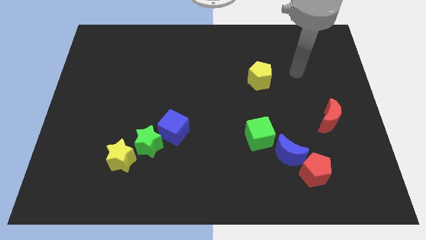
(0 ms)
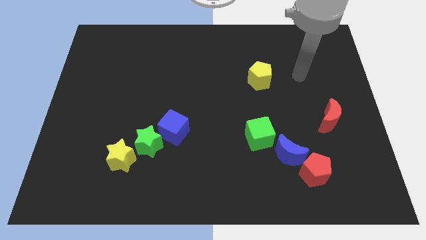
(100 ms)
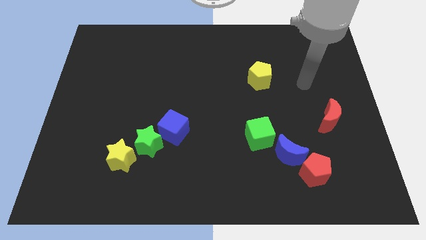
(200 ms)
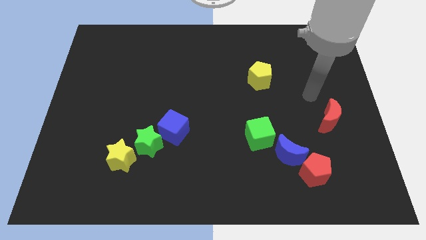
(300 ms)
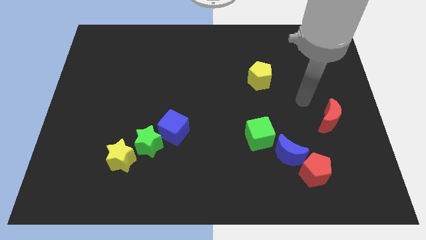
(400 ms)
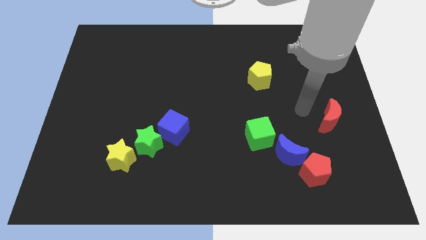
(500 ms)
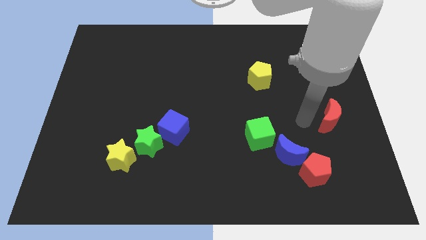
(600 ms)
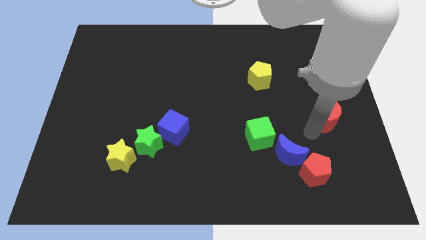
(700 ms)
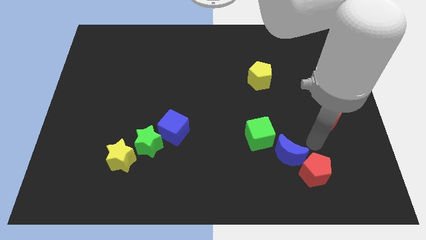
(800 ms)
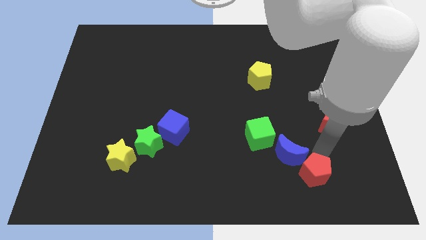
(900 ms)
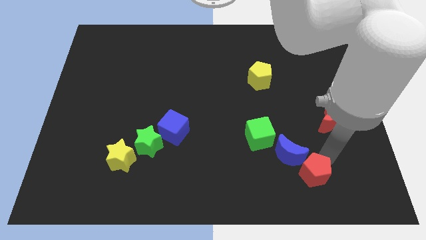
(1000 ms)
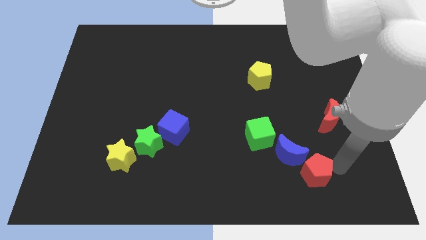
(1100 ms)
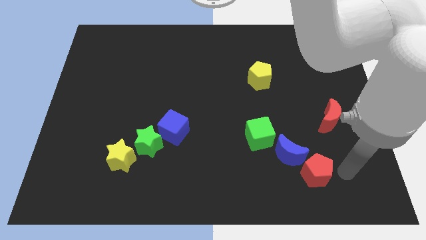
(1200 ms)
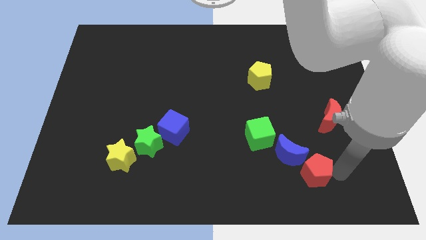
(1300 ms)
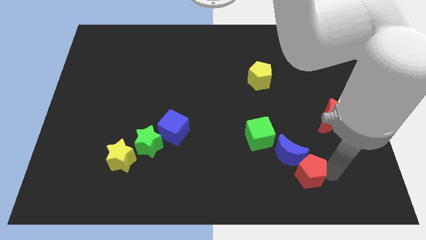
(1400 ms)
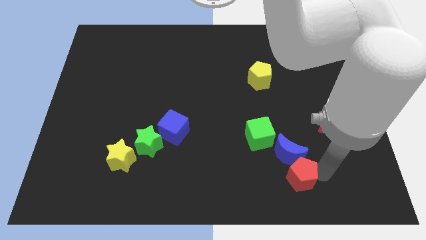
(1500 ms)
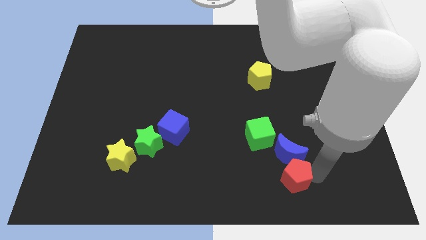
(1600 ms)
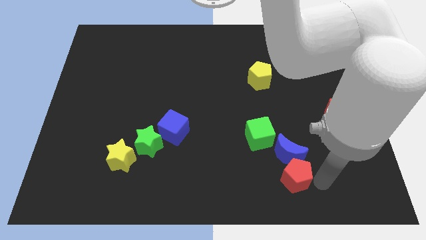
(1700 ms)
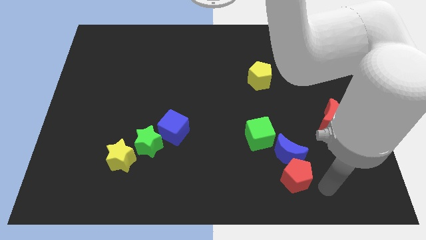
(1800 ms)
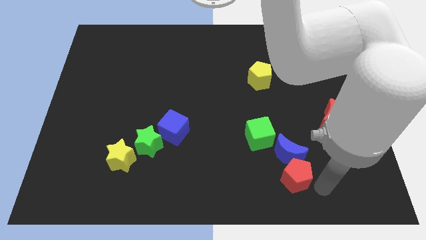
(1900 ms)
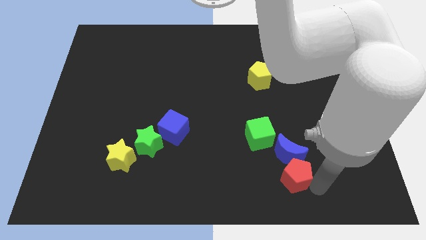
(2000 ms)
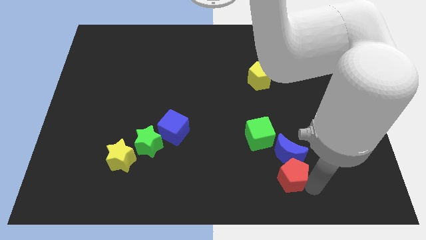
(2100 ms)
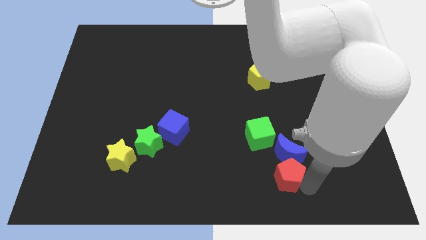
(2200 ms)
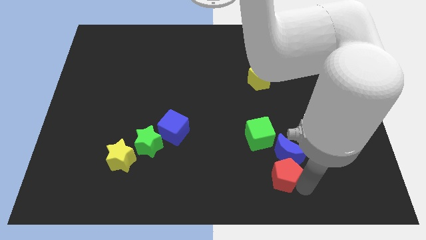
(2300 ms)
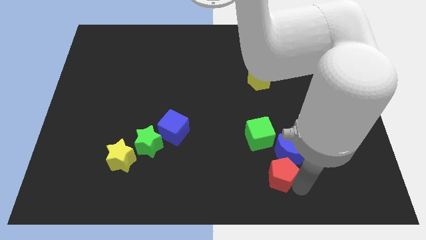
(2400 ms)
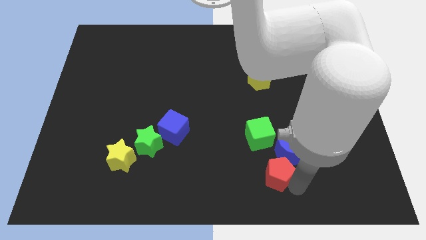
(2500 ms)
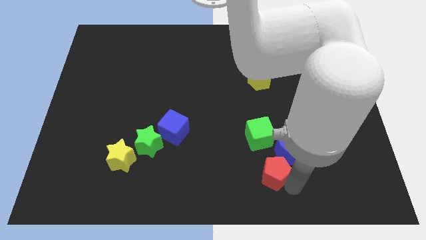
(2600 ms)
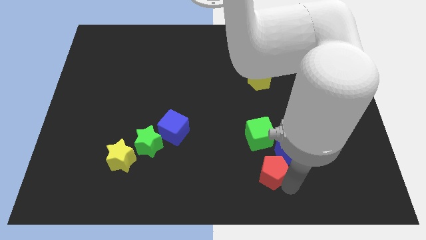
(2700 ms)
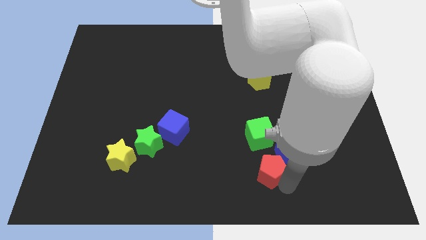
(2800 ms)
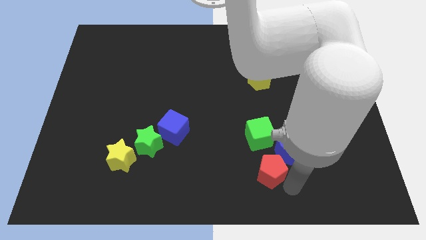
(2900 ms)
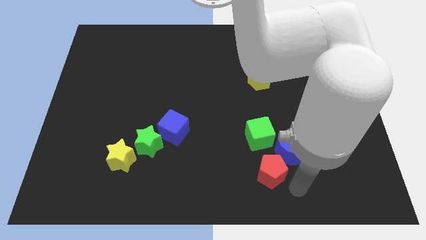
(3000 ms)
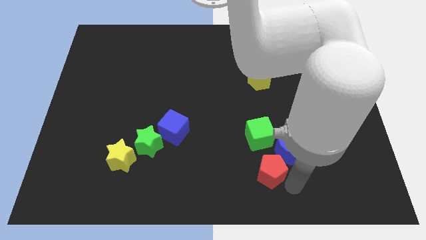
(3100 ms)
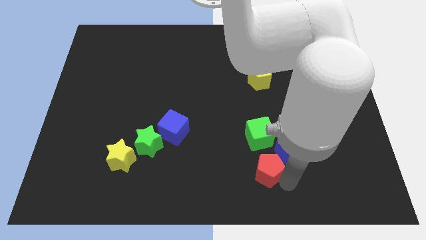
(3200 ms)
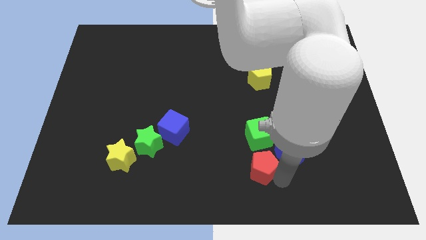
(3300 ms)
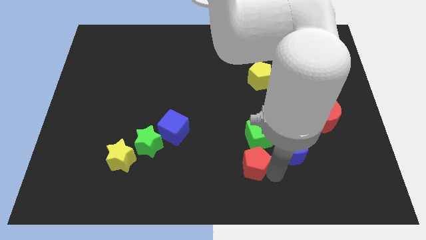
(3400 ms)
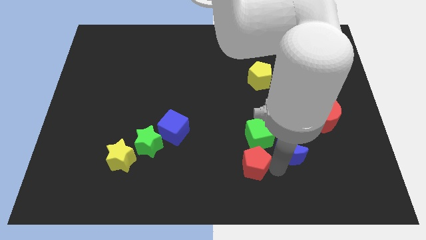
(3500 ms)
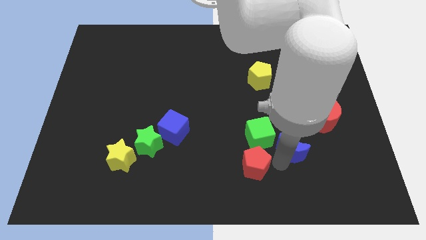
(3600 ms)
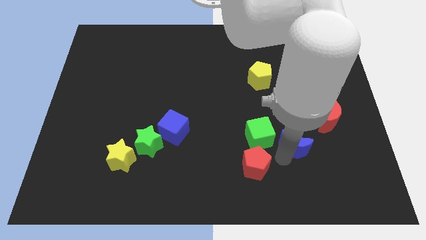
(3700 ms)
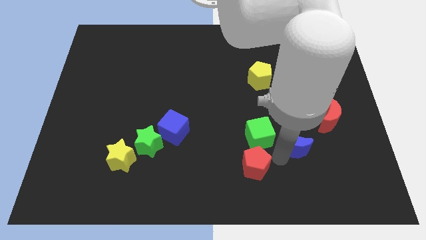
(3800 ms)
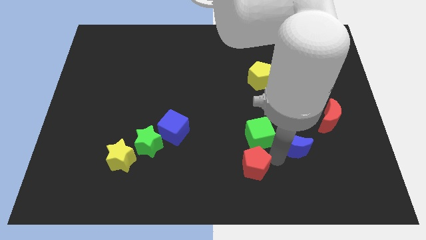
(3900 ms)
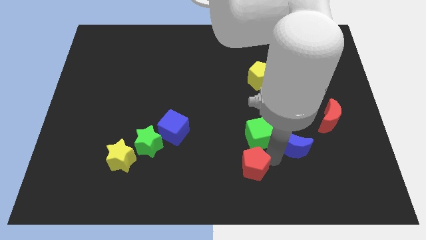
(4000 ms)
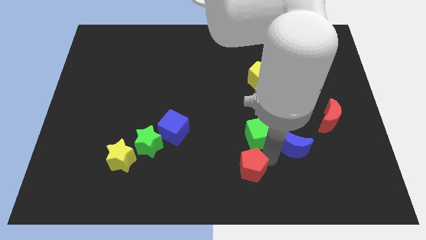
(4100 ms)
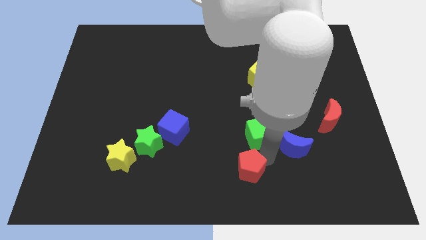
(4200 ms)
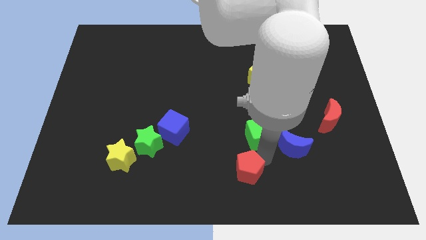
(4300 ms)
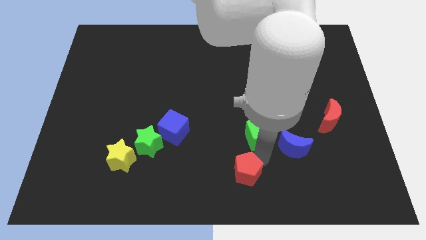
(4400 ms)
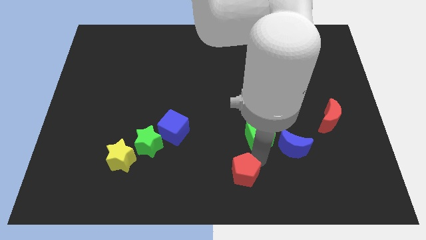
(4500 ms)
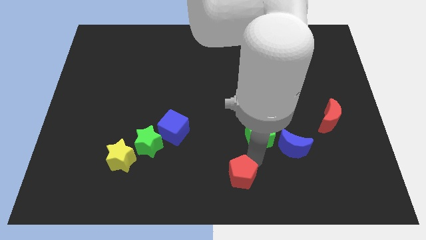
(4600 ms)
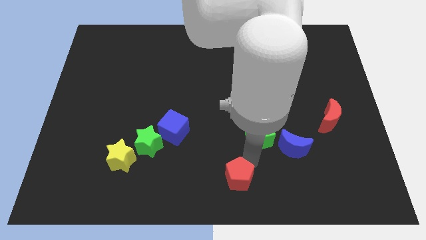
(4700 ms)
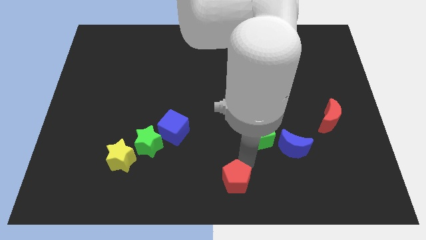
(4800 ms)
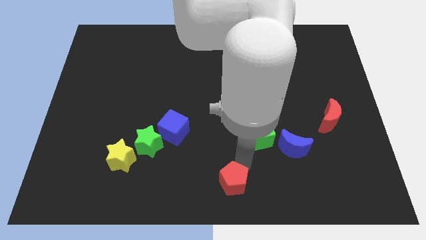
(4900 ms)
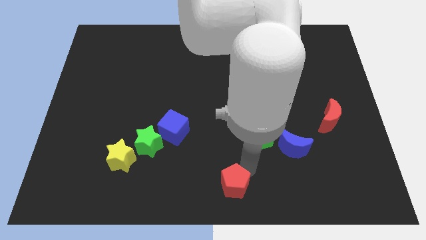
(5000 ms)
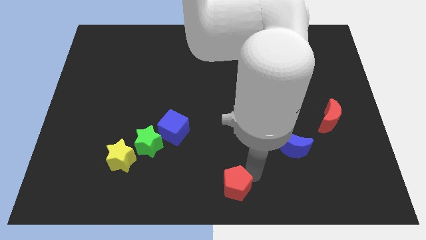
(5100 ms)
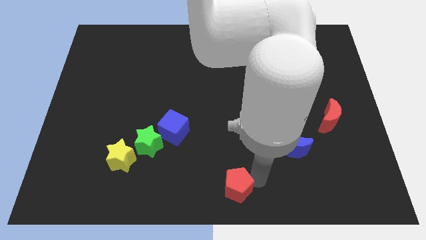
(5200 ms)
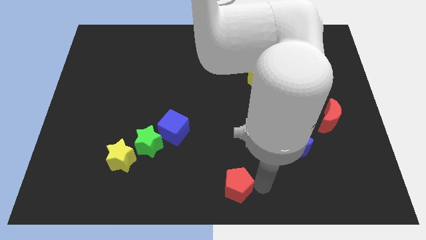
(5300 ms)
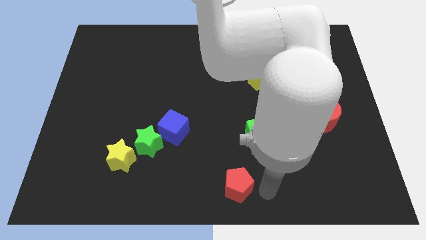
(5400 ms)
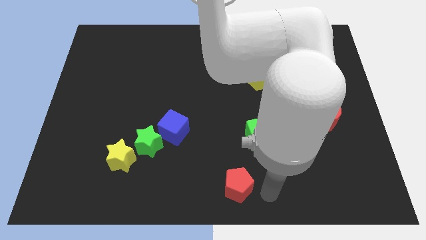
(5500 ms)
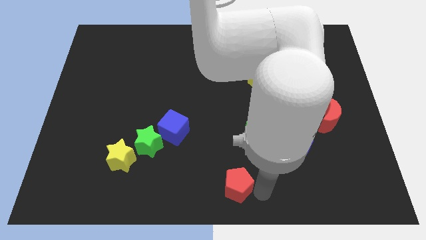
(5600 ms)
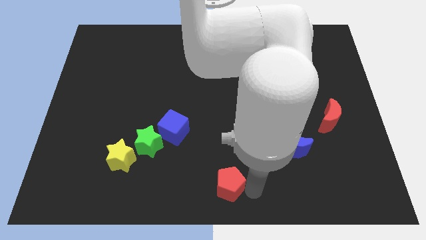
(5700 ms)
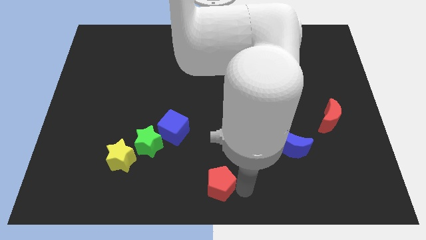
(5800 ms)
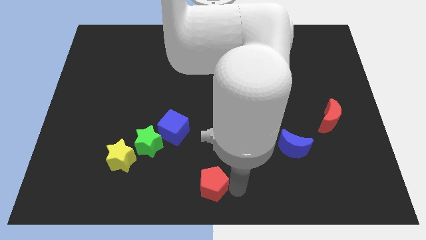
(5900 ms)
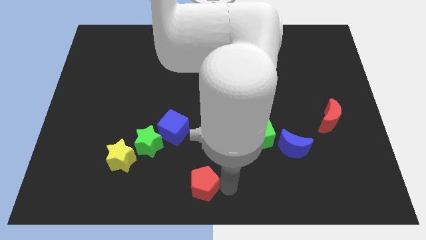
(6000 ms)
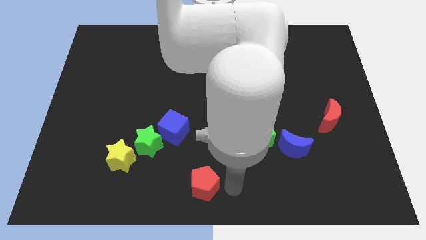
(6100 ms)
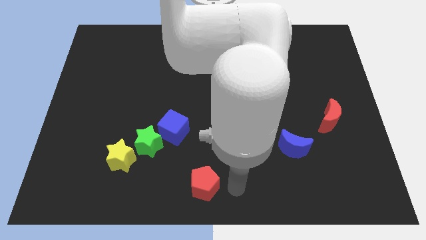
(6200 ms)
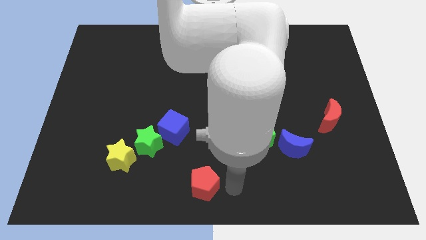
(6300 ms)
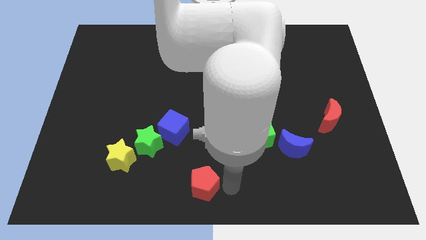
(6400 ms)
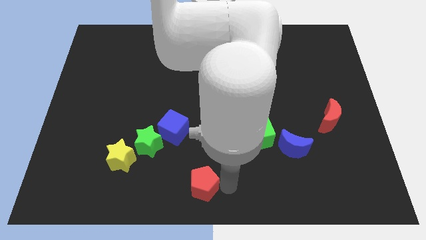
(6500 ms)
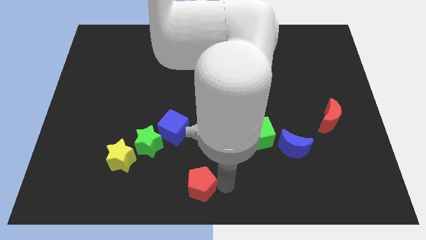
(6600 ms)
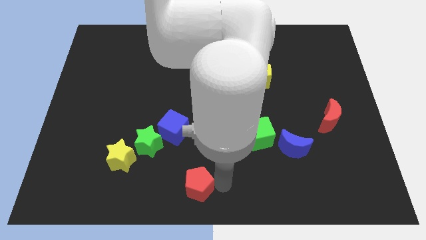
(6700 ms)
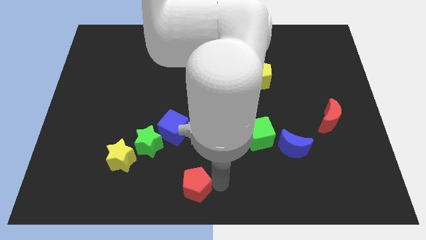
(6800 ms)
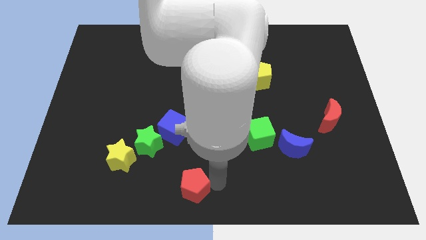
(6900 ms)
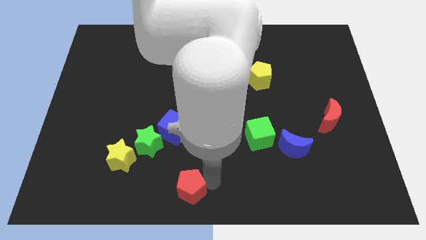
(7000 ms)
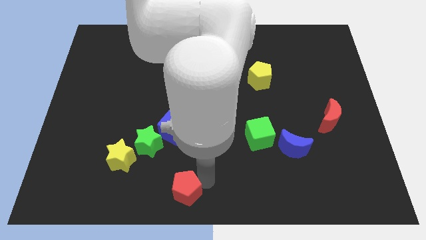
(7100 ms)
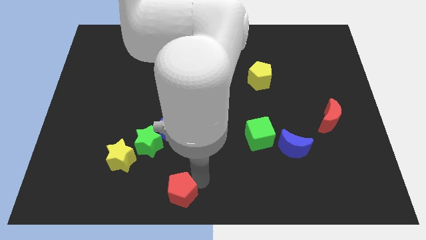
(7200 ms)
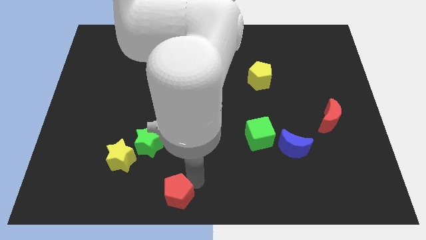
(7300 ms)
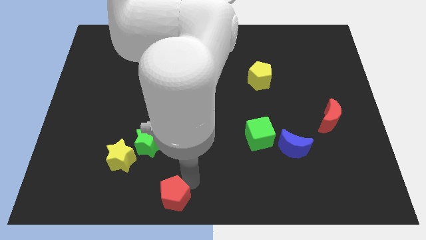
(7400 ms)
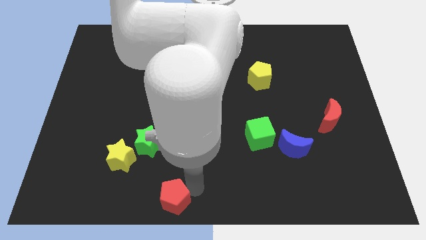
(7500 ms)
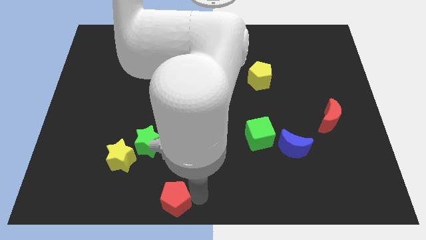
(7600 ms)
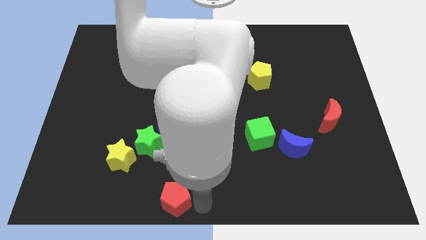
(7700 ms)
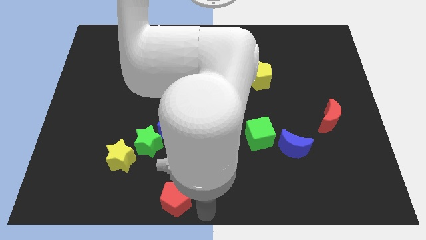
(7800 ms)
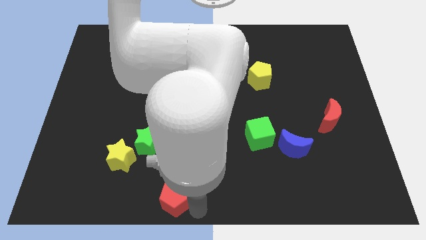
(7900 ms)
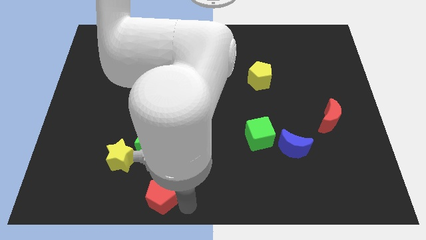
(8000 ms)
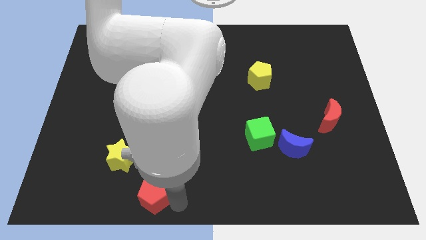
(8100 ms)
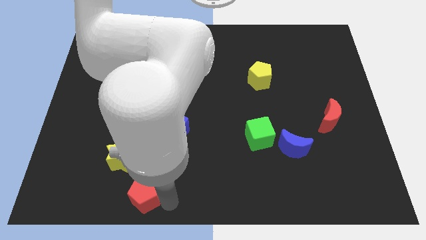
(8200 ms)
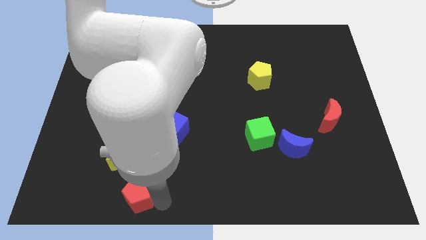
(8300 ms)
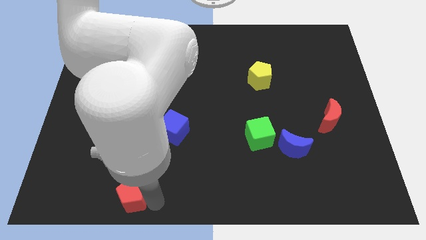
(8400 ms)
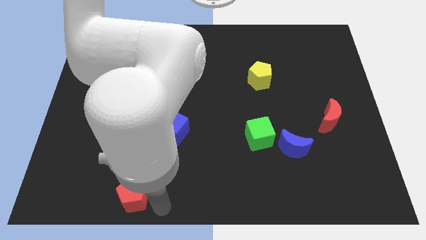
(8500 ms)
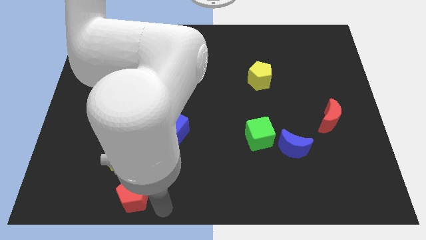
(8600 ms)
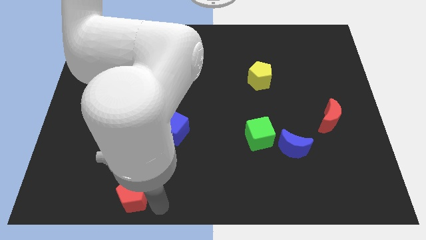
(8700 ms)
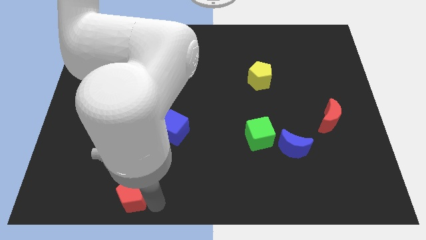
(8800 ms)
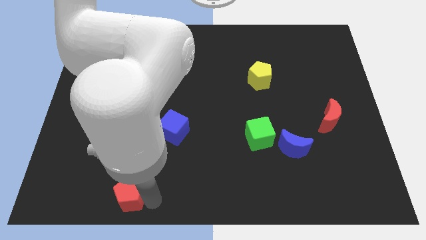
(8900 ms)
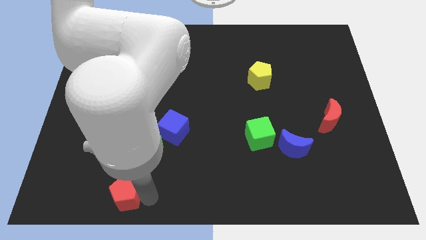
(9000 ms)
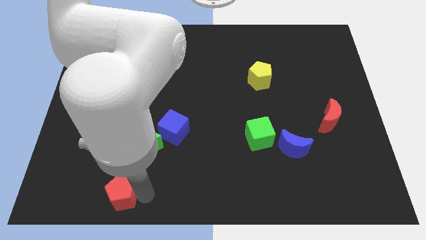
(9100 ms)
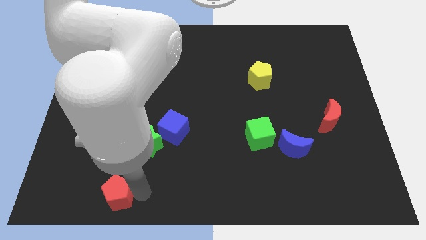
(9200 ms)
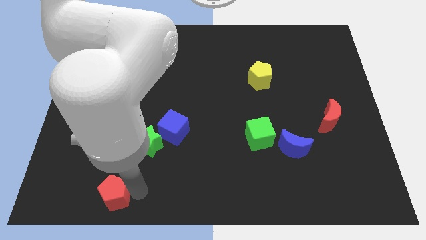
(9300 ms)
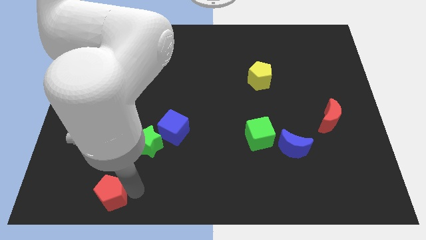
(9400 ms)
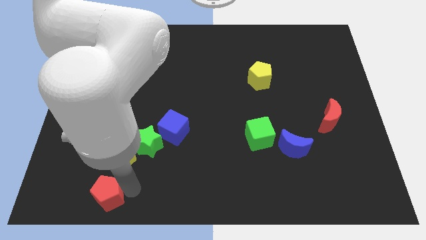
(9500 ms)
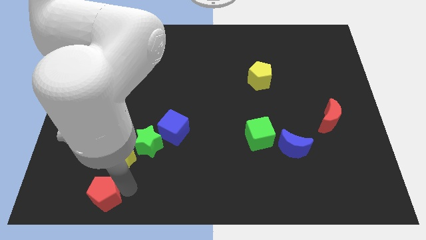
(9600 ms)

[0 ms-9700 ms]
slide the red pentagon to the bottom left side of the yellow star
